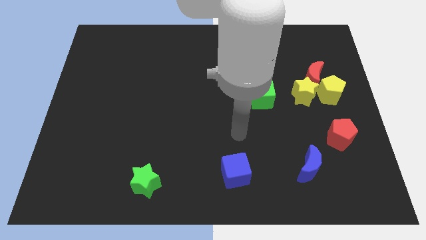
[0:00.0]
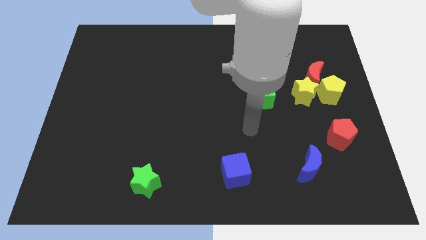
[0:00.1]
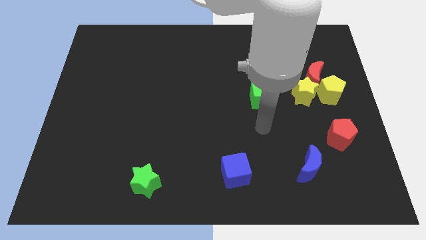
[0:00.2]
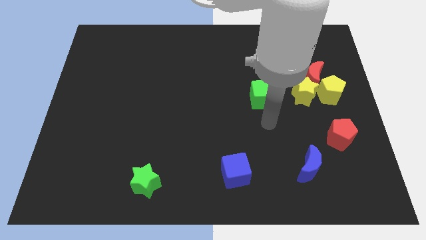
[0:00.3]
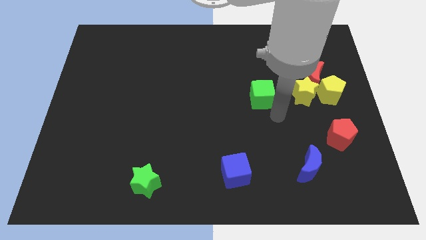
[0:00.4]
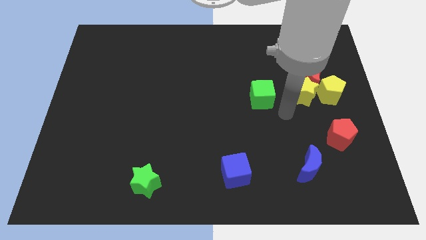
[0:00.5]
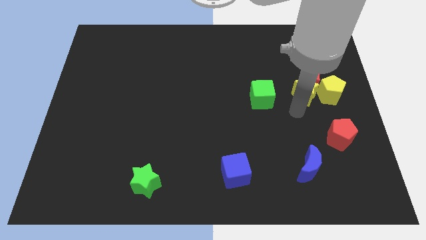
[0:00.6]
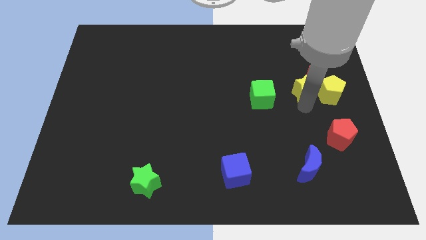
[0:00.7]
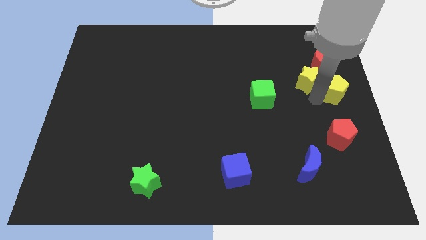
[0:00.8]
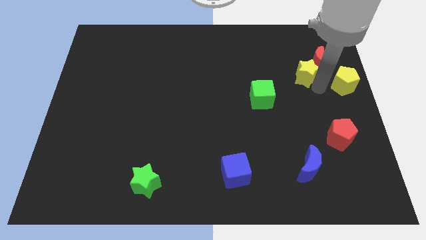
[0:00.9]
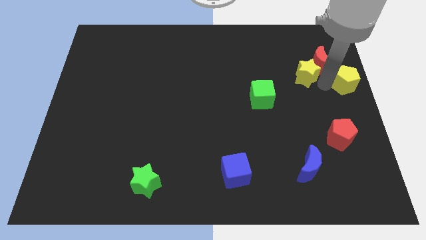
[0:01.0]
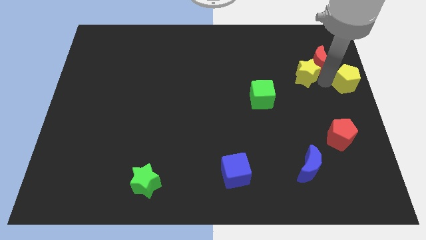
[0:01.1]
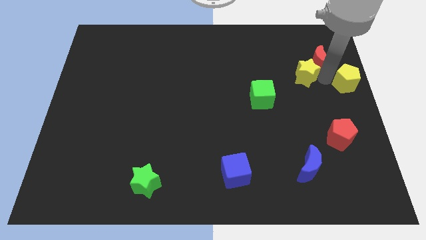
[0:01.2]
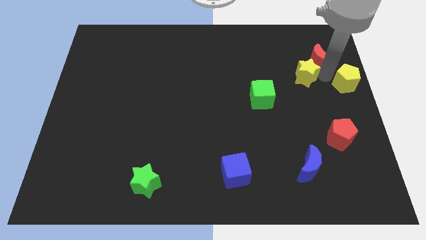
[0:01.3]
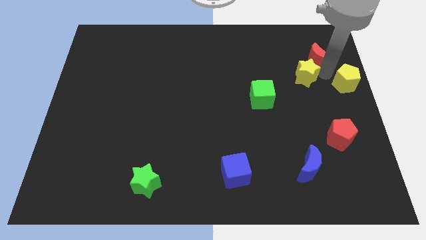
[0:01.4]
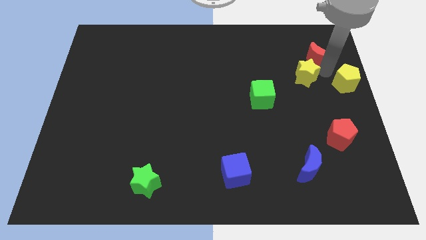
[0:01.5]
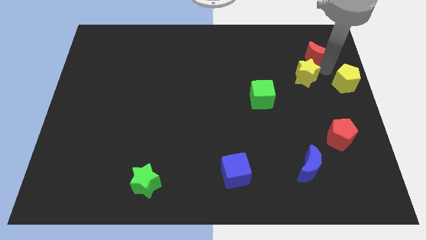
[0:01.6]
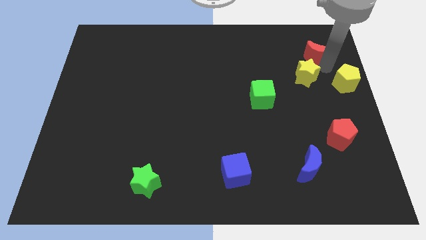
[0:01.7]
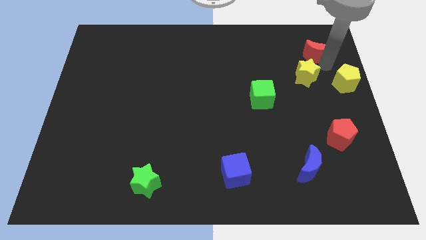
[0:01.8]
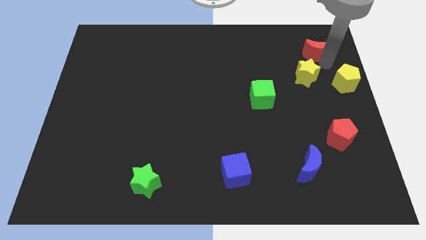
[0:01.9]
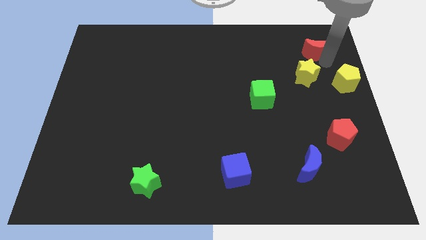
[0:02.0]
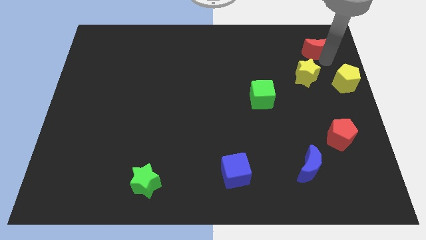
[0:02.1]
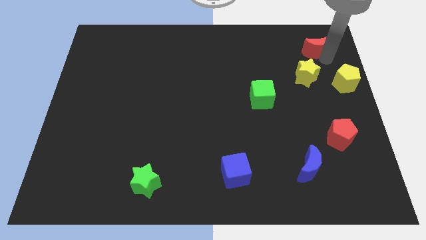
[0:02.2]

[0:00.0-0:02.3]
move the red moon away from the yellow star and yellow pentagon

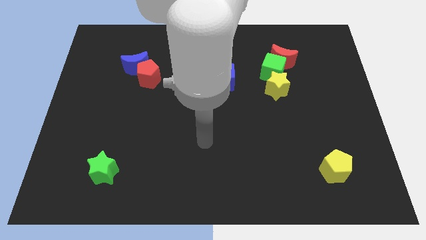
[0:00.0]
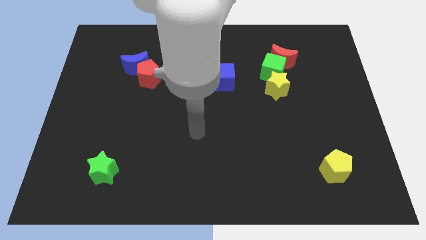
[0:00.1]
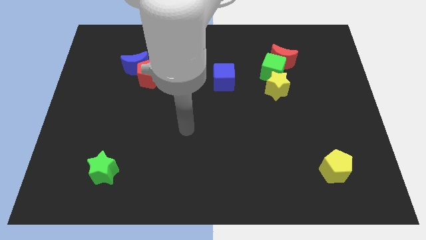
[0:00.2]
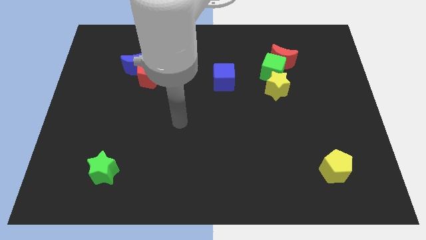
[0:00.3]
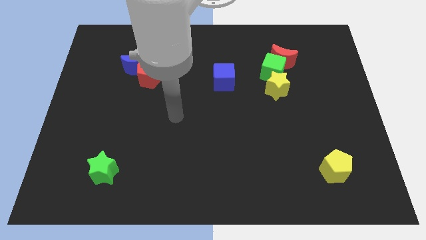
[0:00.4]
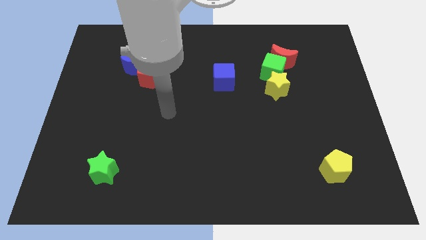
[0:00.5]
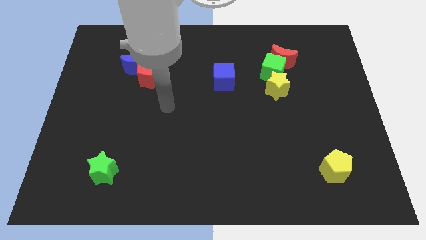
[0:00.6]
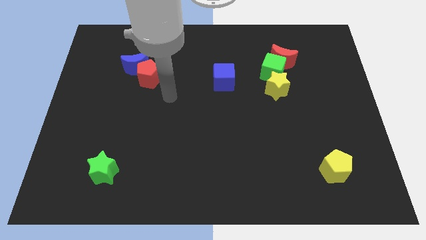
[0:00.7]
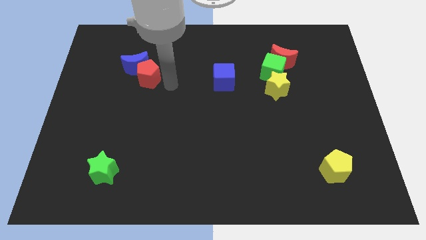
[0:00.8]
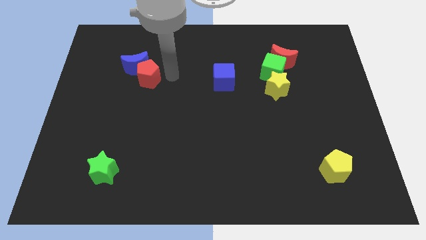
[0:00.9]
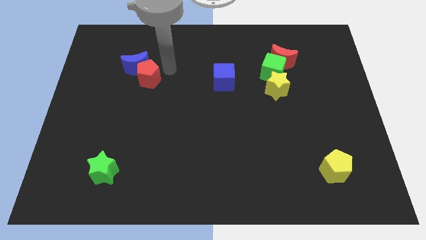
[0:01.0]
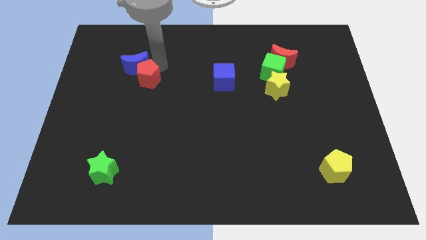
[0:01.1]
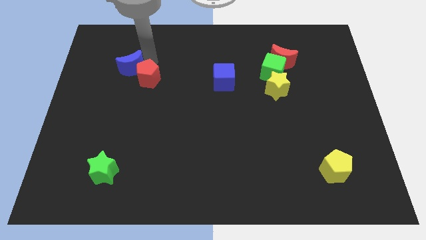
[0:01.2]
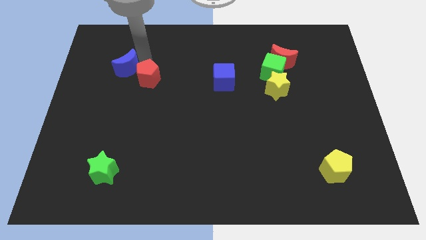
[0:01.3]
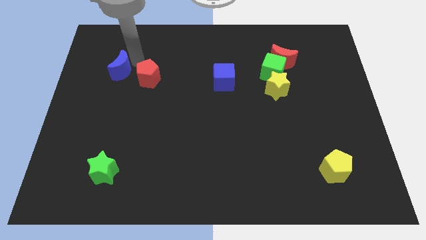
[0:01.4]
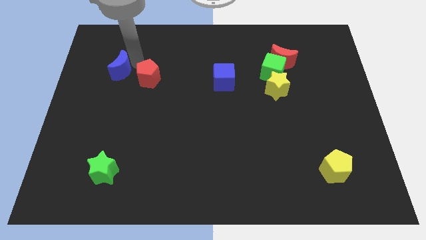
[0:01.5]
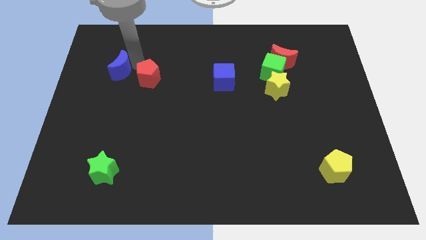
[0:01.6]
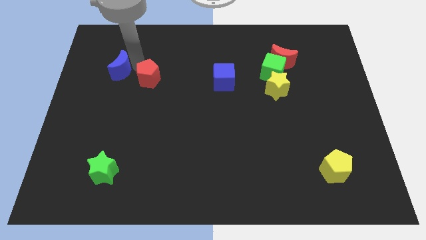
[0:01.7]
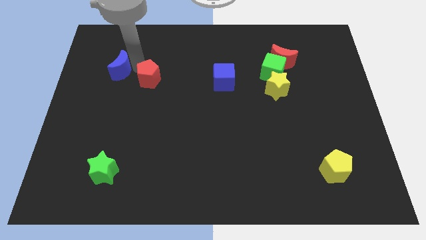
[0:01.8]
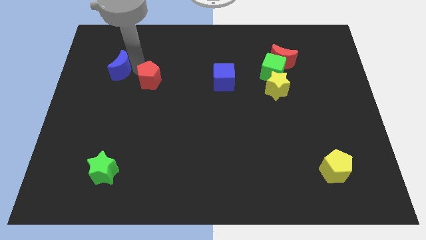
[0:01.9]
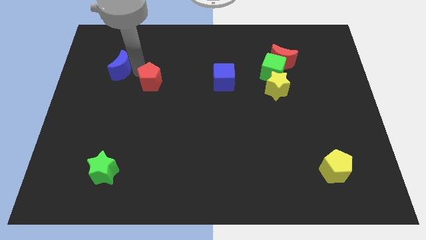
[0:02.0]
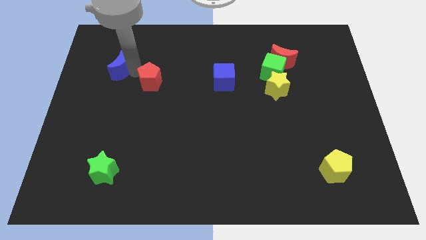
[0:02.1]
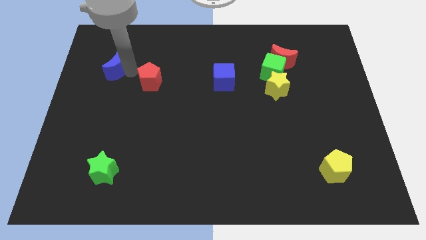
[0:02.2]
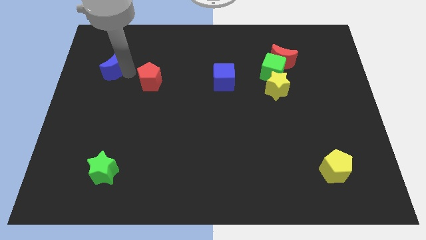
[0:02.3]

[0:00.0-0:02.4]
pull the red pentagon apart from the blue moon

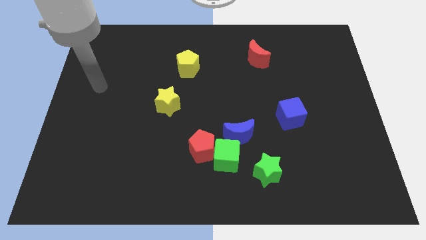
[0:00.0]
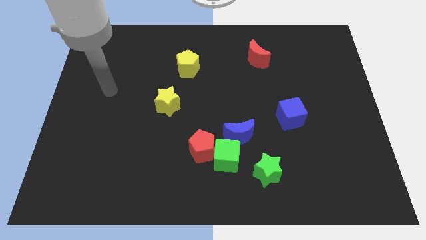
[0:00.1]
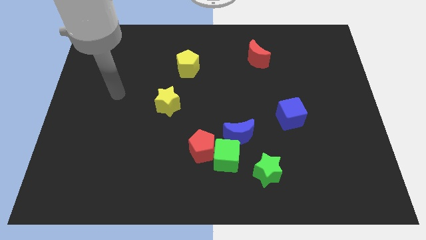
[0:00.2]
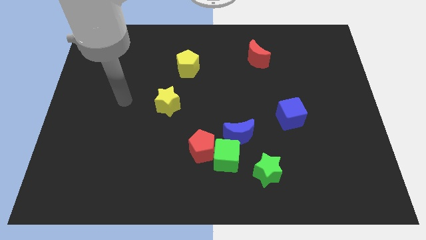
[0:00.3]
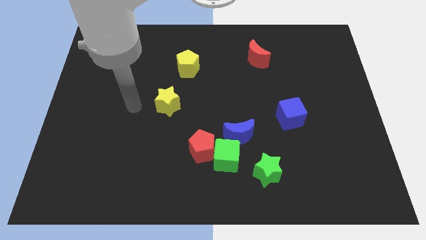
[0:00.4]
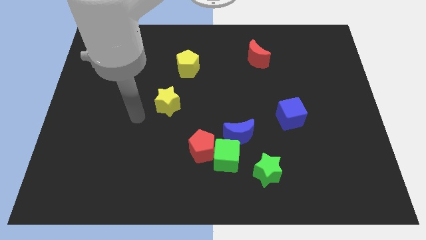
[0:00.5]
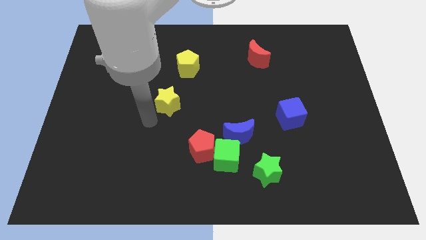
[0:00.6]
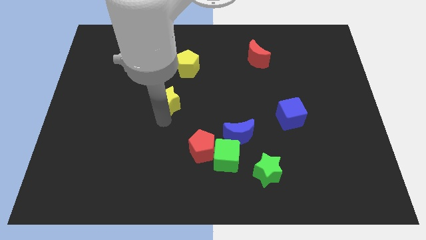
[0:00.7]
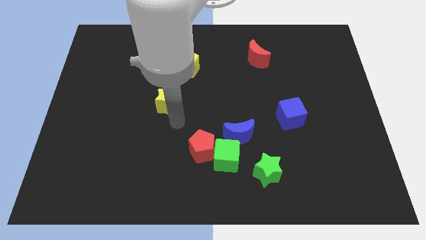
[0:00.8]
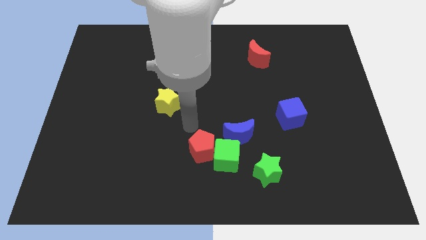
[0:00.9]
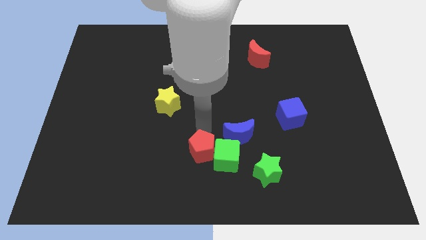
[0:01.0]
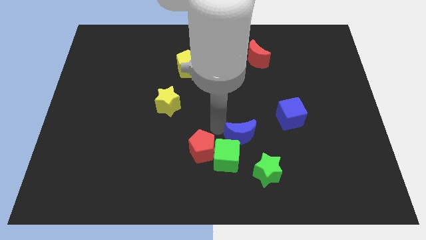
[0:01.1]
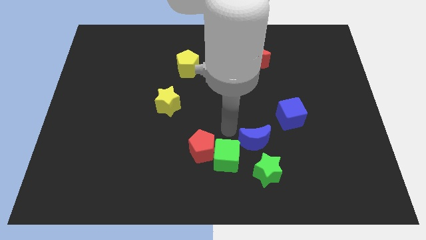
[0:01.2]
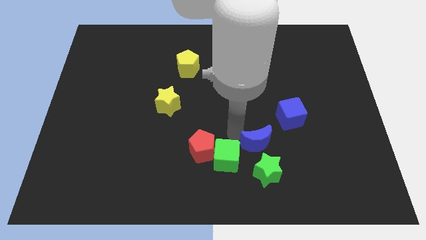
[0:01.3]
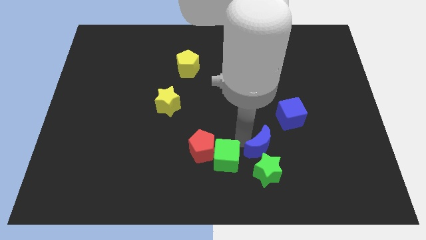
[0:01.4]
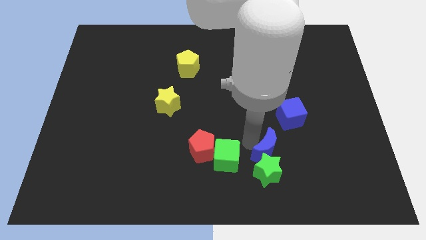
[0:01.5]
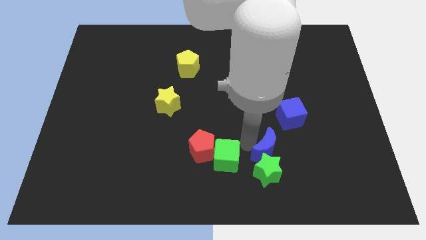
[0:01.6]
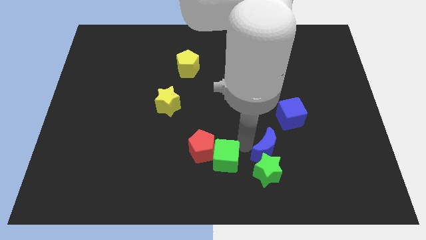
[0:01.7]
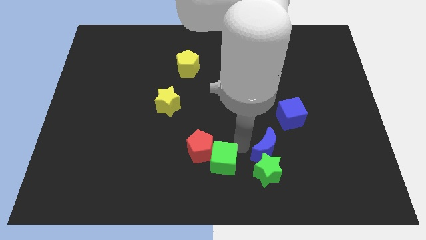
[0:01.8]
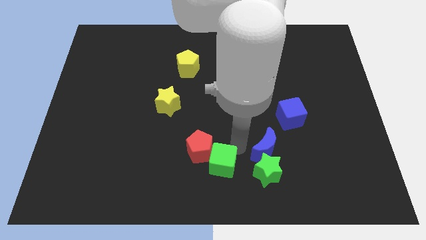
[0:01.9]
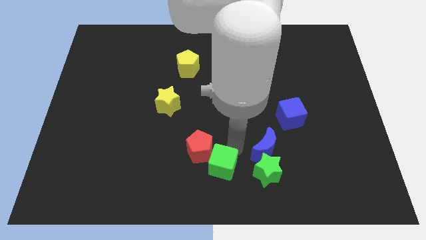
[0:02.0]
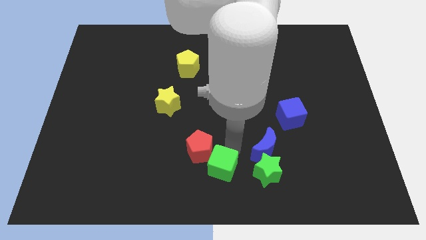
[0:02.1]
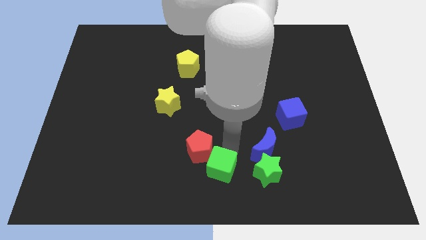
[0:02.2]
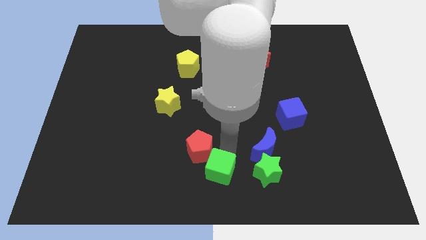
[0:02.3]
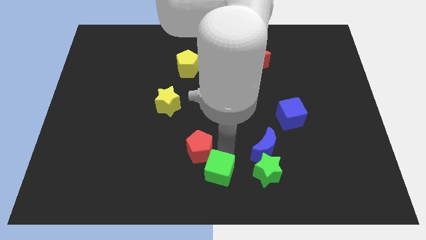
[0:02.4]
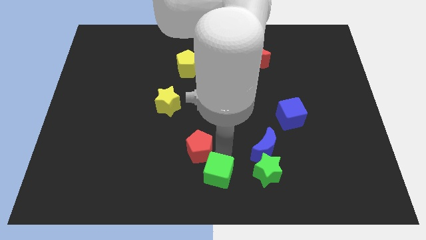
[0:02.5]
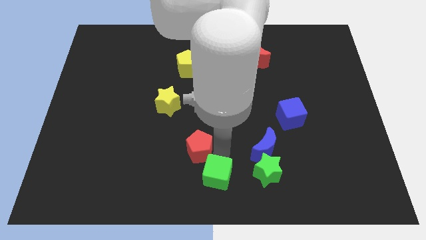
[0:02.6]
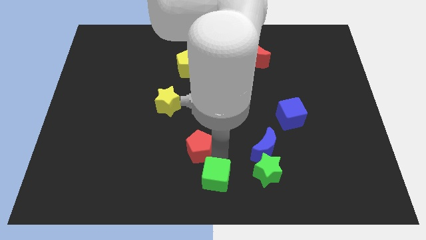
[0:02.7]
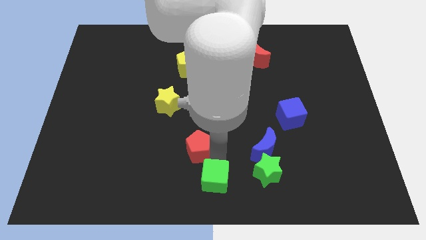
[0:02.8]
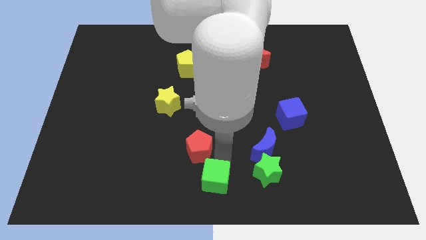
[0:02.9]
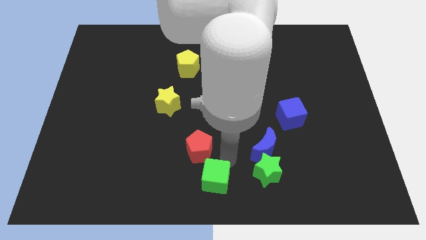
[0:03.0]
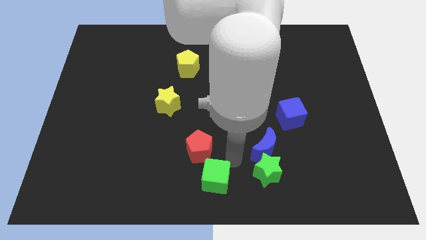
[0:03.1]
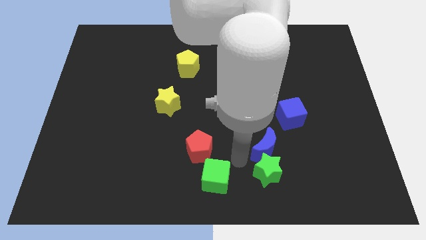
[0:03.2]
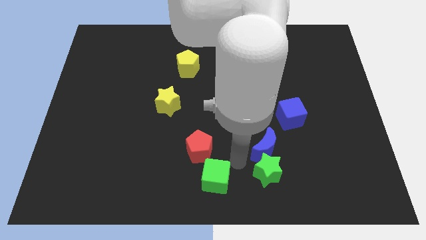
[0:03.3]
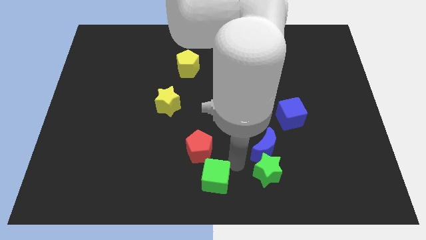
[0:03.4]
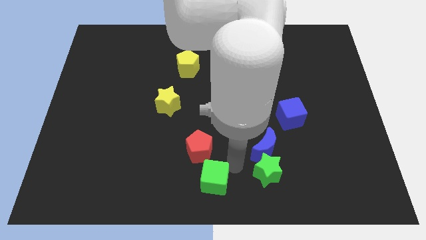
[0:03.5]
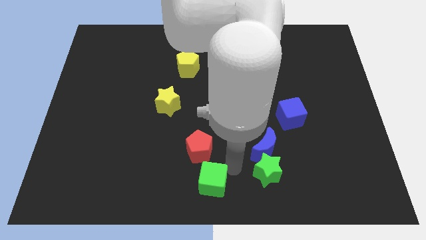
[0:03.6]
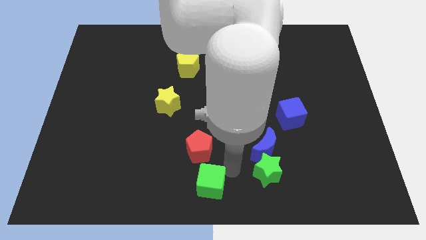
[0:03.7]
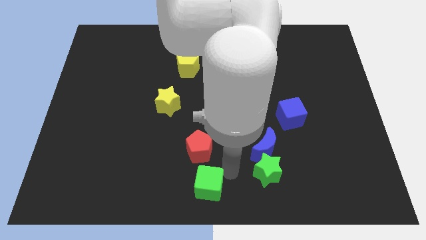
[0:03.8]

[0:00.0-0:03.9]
move the green cube away from the red pentagon, blue moon, and green star

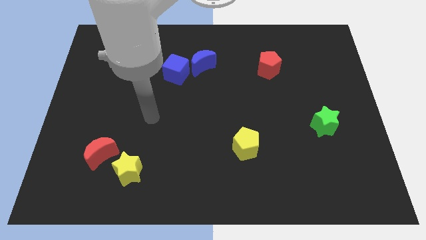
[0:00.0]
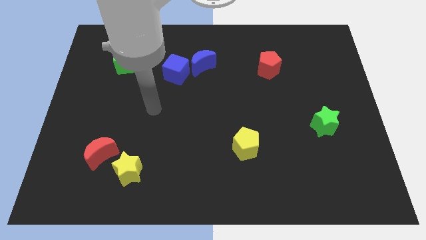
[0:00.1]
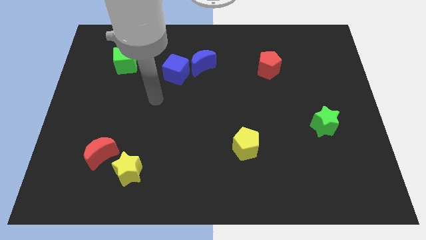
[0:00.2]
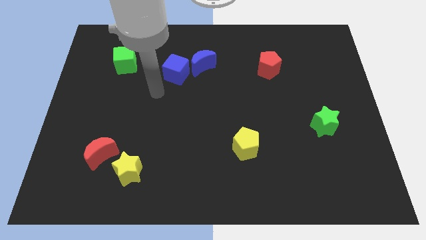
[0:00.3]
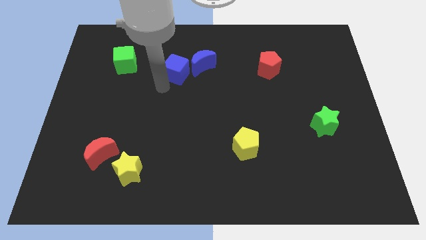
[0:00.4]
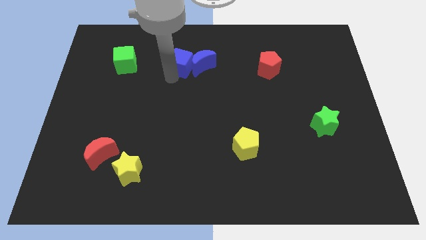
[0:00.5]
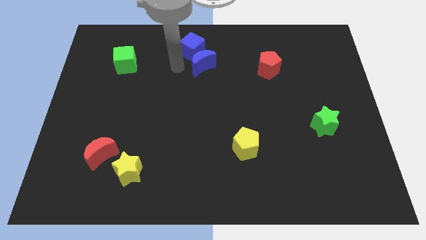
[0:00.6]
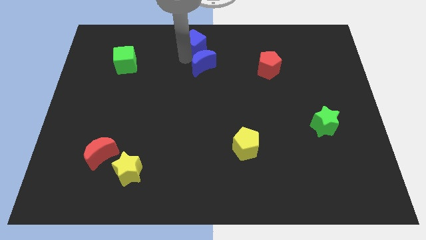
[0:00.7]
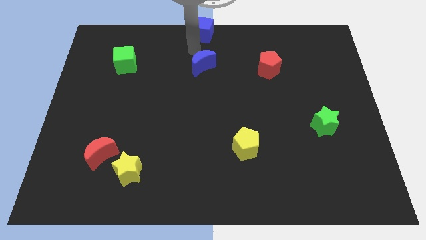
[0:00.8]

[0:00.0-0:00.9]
separate the blue moon from the blue cube
